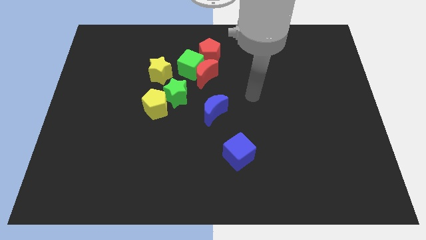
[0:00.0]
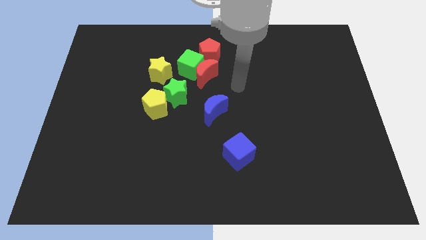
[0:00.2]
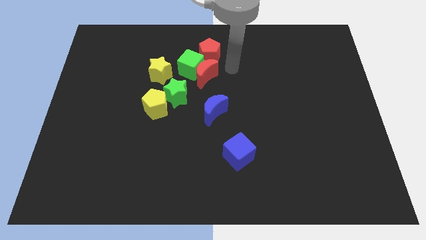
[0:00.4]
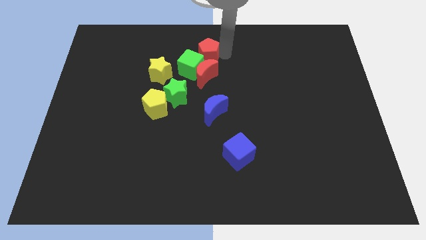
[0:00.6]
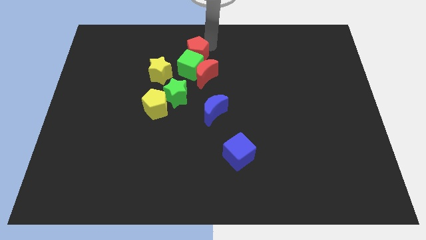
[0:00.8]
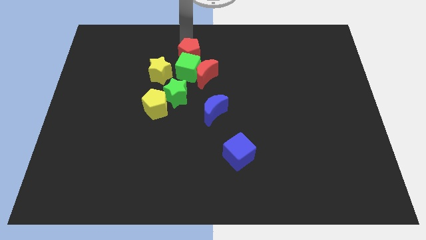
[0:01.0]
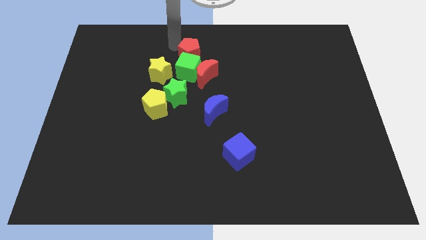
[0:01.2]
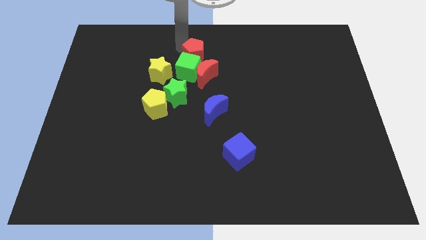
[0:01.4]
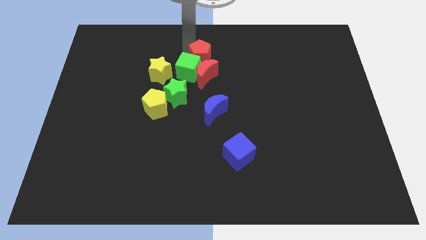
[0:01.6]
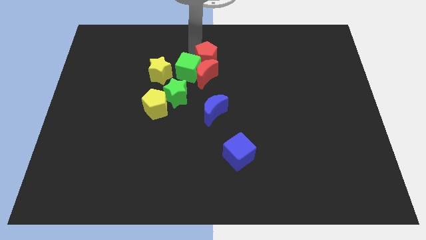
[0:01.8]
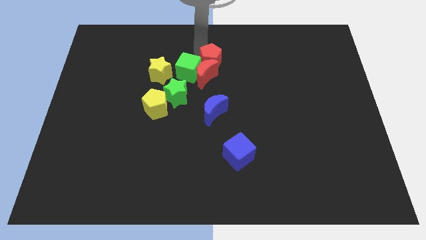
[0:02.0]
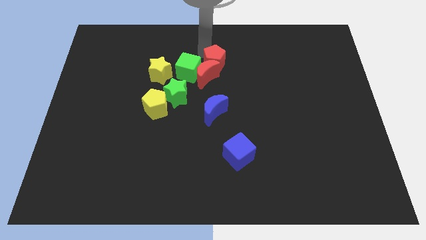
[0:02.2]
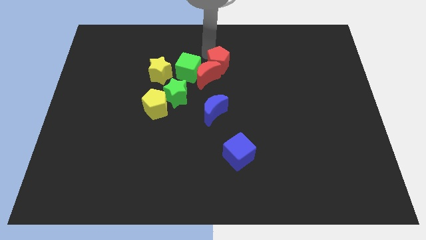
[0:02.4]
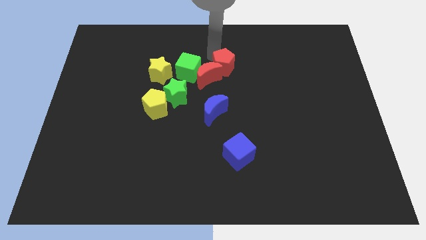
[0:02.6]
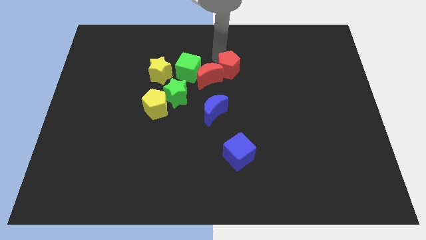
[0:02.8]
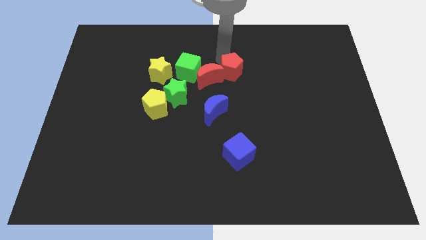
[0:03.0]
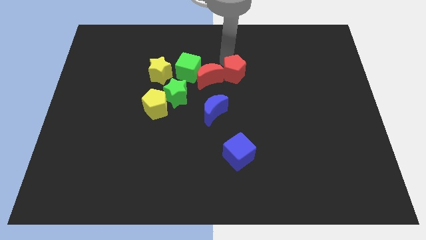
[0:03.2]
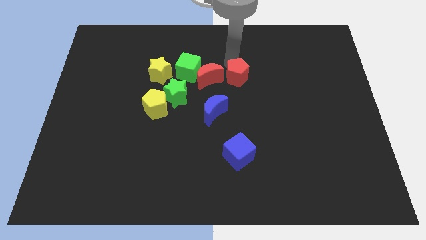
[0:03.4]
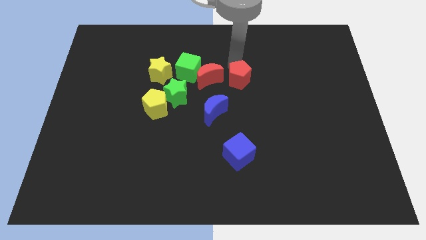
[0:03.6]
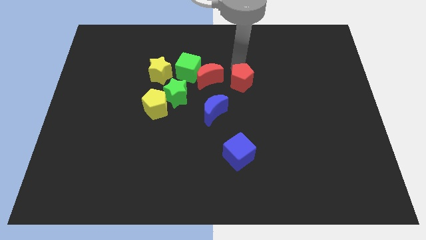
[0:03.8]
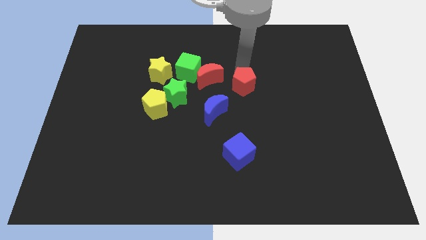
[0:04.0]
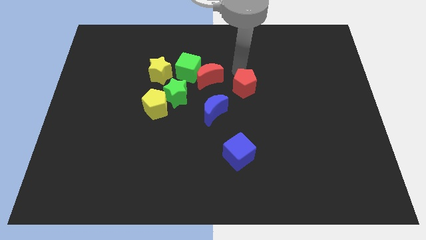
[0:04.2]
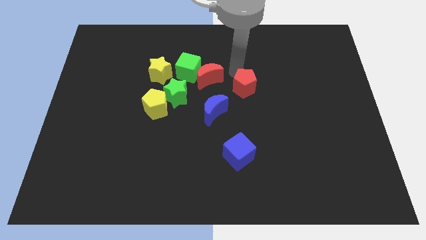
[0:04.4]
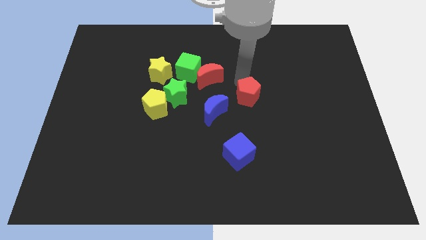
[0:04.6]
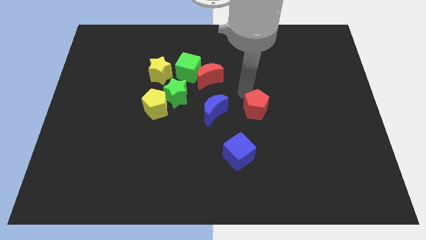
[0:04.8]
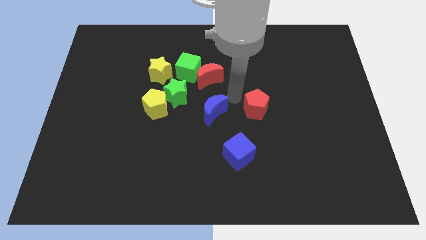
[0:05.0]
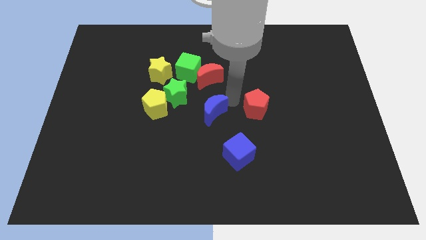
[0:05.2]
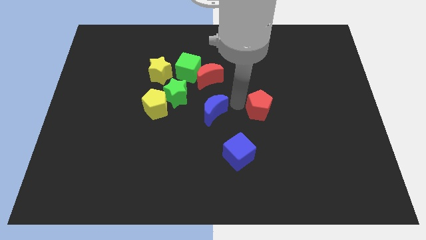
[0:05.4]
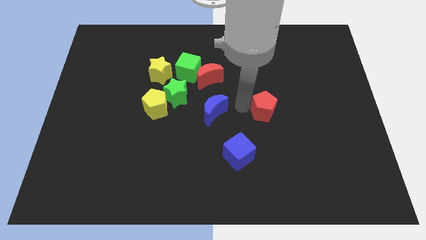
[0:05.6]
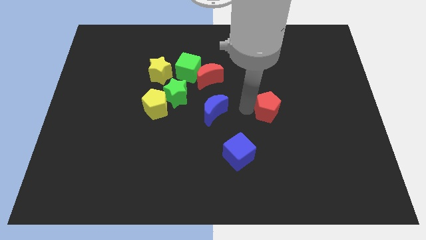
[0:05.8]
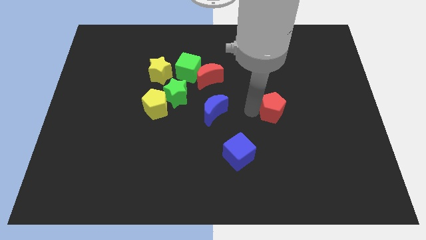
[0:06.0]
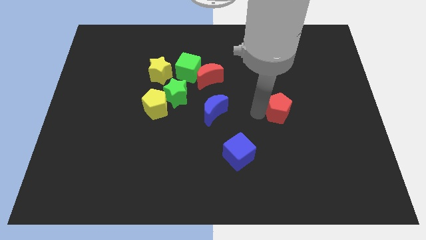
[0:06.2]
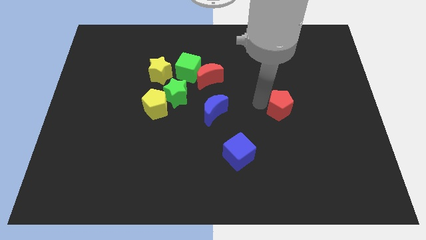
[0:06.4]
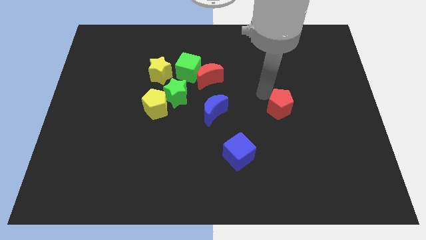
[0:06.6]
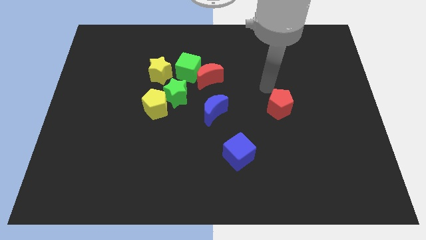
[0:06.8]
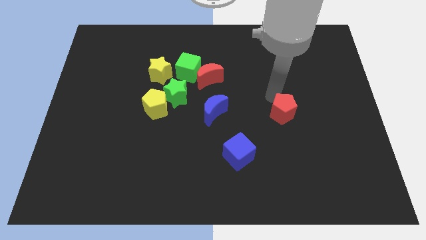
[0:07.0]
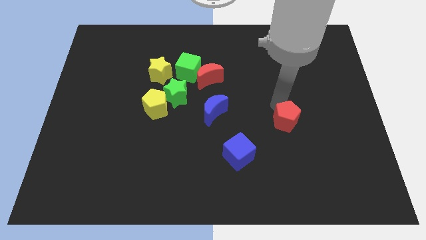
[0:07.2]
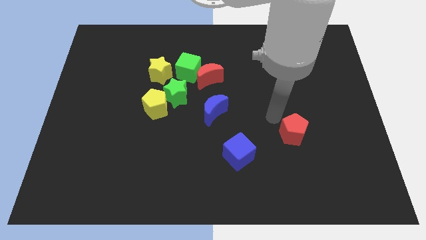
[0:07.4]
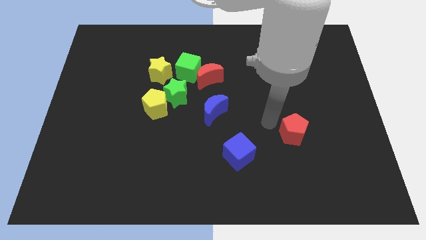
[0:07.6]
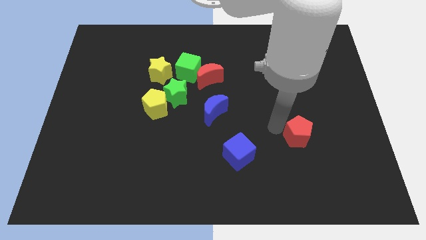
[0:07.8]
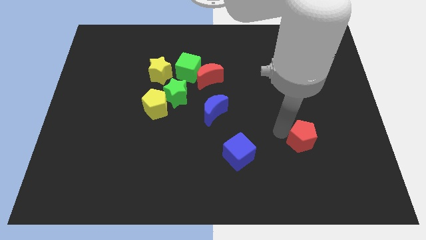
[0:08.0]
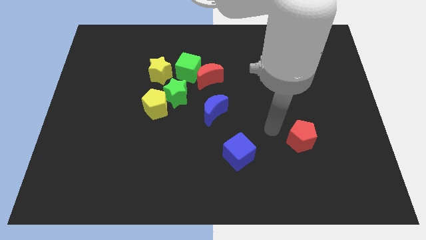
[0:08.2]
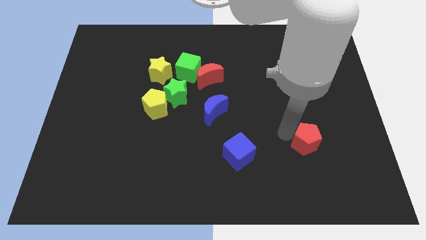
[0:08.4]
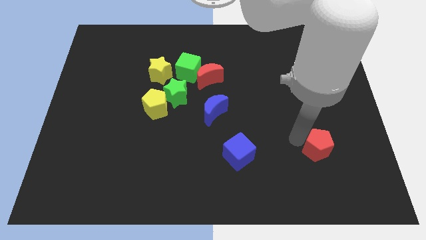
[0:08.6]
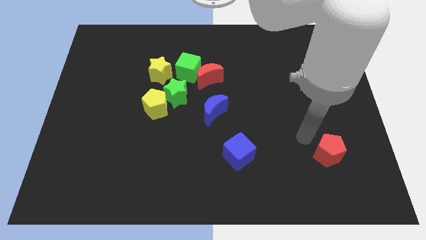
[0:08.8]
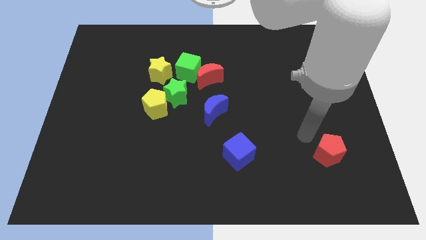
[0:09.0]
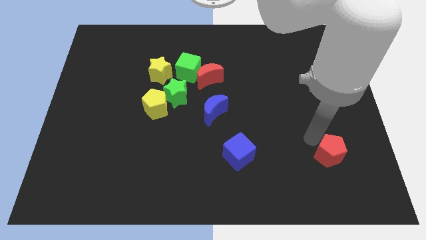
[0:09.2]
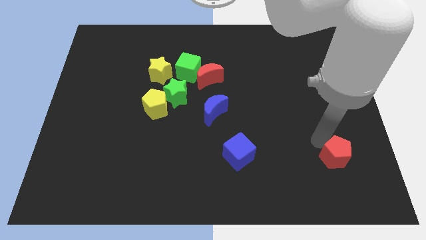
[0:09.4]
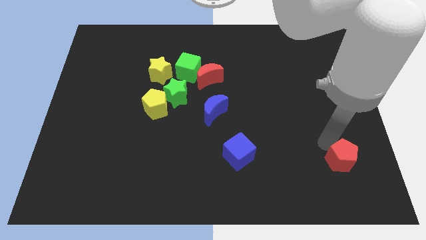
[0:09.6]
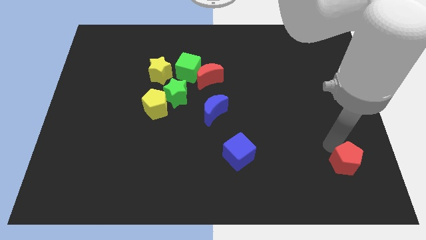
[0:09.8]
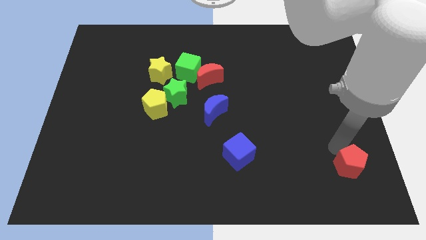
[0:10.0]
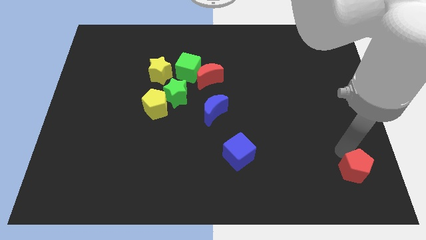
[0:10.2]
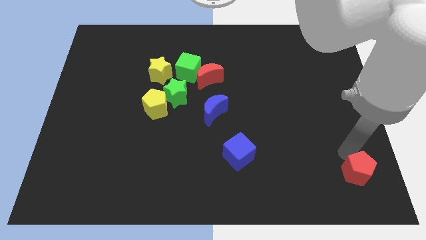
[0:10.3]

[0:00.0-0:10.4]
push the red pentagon to the bottom right corner
